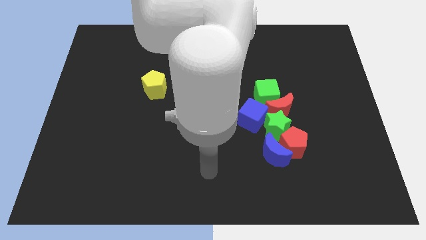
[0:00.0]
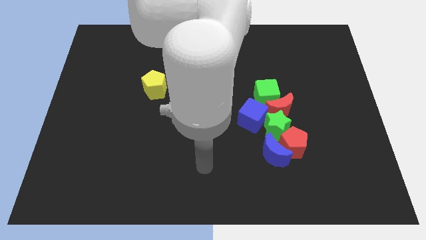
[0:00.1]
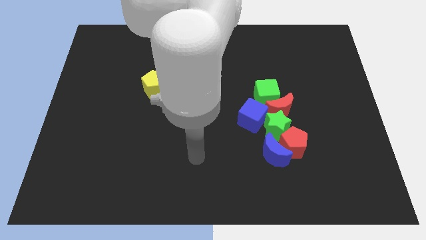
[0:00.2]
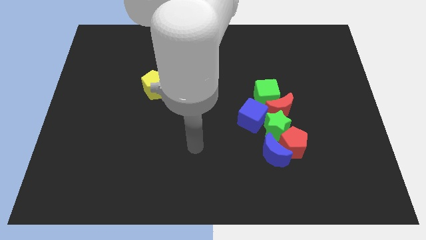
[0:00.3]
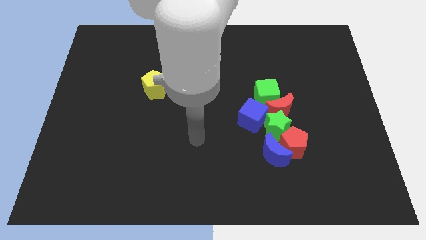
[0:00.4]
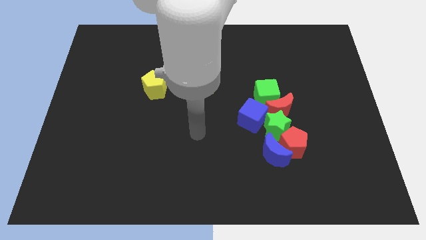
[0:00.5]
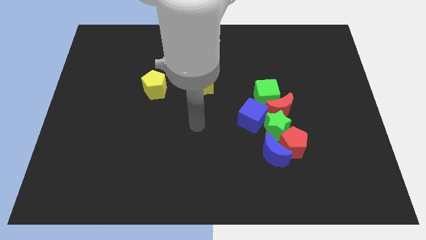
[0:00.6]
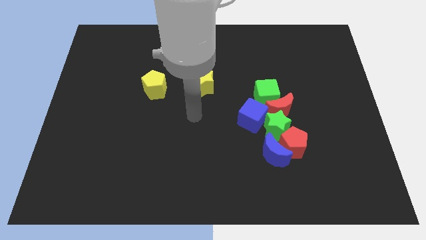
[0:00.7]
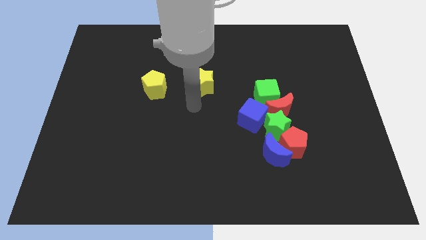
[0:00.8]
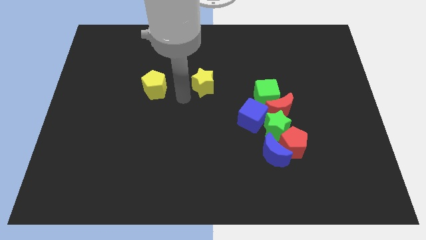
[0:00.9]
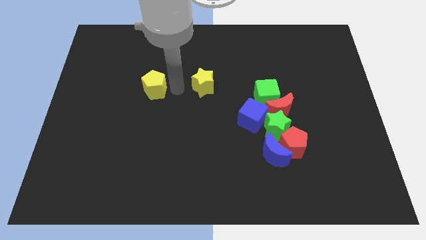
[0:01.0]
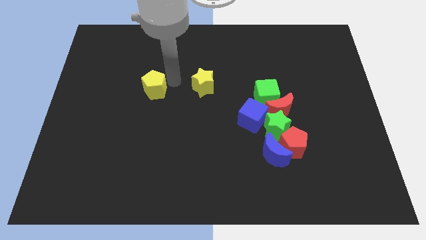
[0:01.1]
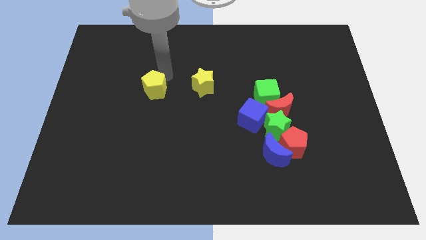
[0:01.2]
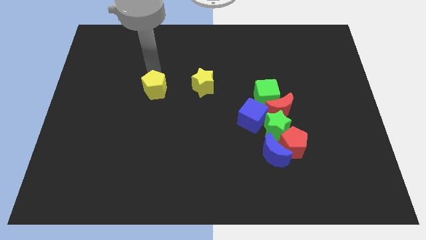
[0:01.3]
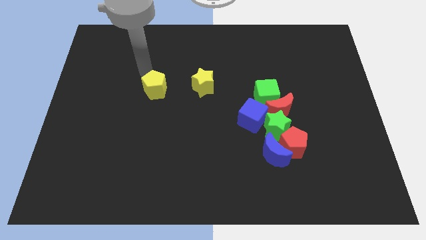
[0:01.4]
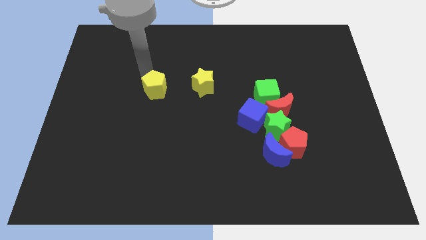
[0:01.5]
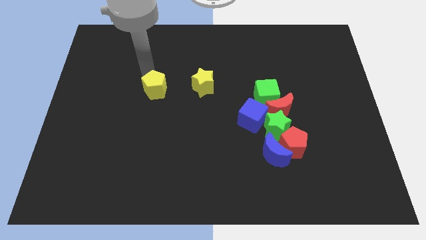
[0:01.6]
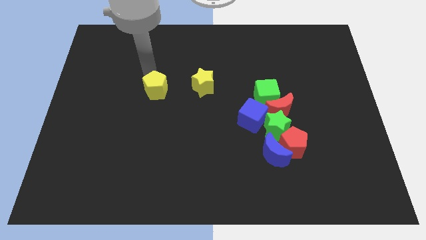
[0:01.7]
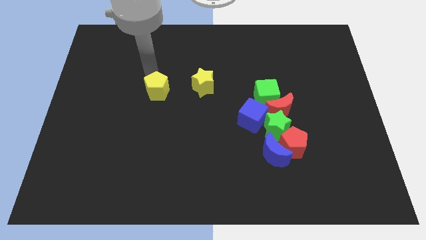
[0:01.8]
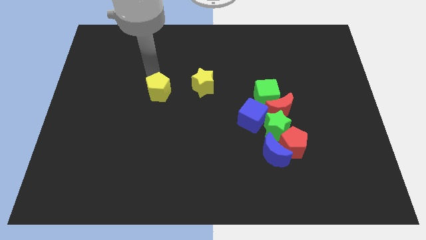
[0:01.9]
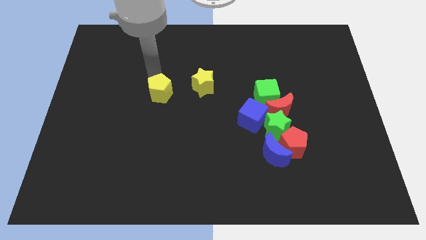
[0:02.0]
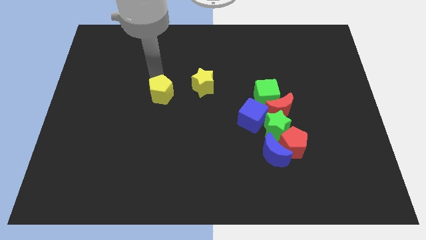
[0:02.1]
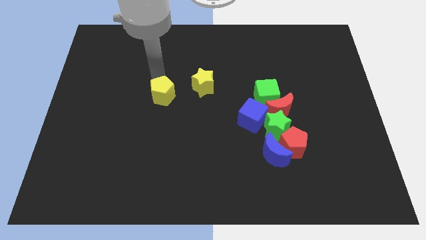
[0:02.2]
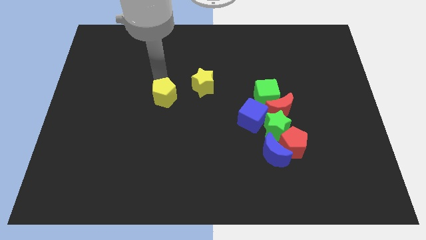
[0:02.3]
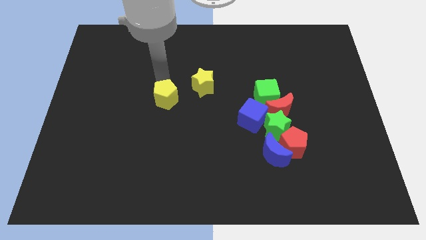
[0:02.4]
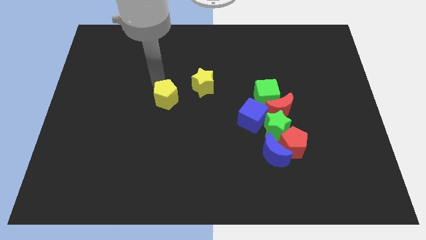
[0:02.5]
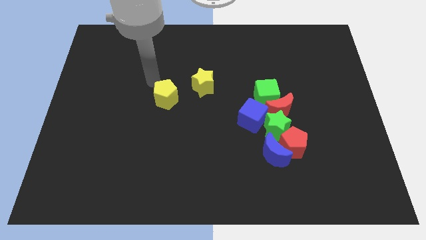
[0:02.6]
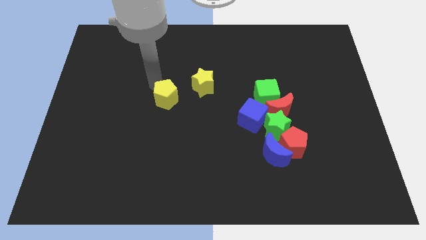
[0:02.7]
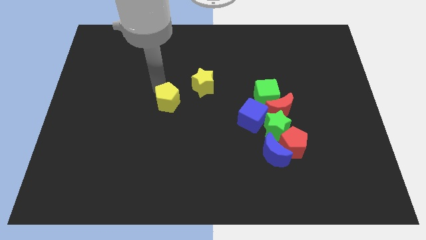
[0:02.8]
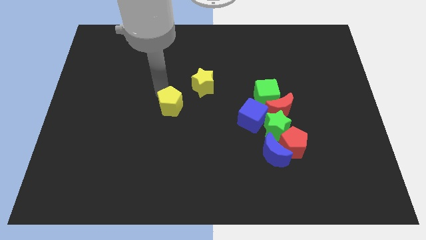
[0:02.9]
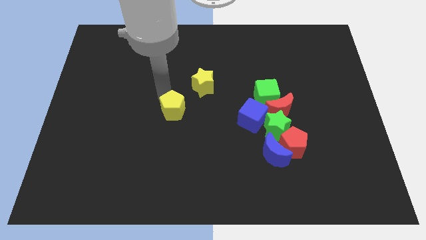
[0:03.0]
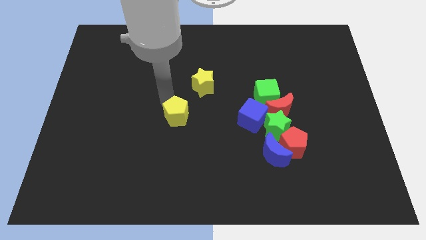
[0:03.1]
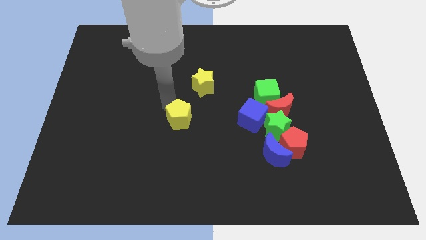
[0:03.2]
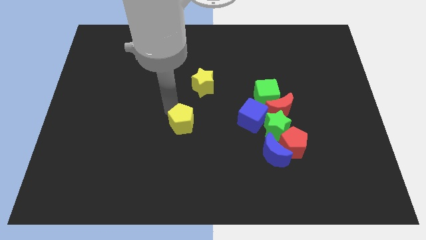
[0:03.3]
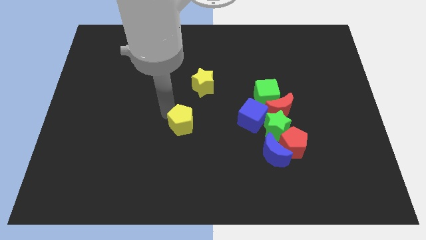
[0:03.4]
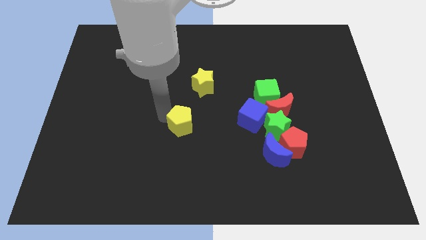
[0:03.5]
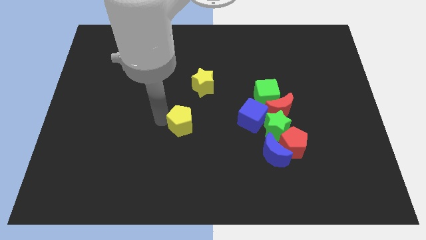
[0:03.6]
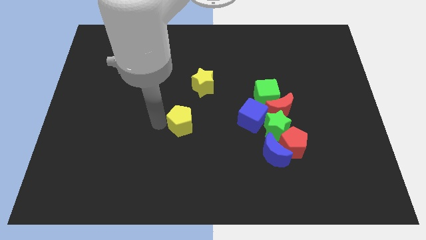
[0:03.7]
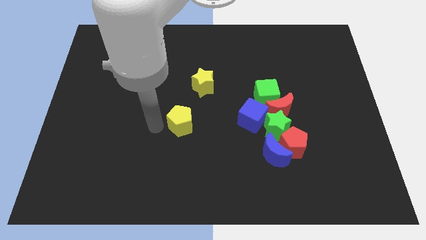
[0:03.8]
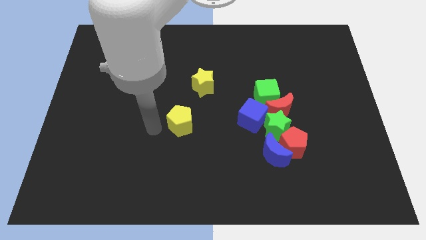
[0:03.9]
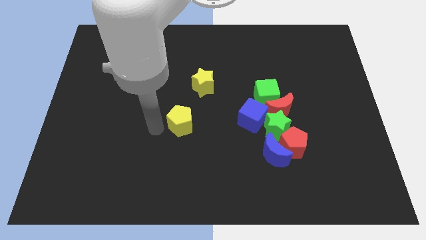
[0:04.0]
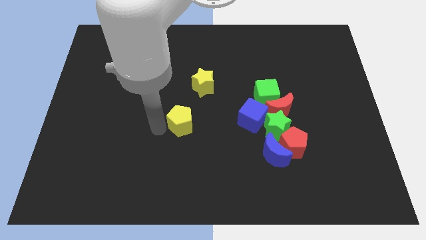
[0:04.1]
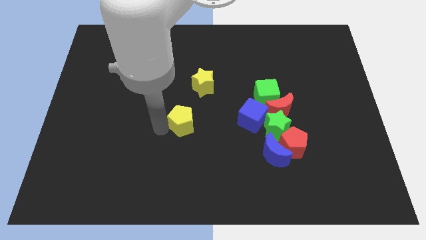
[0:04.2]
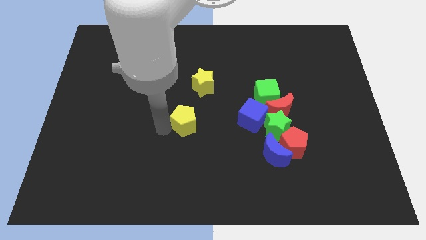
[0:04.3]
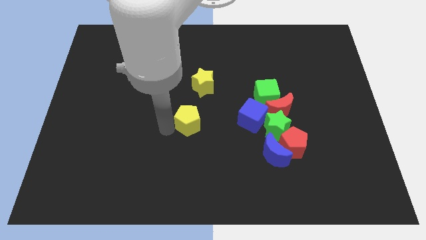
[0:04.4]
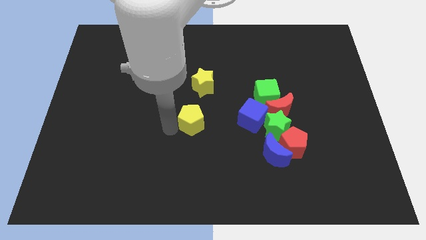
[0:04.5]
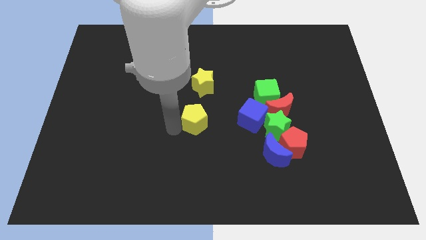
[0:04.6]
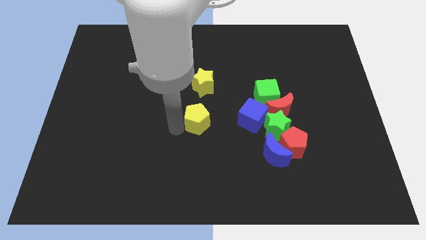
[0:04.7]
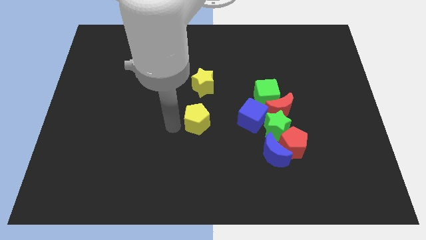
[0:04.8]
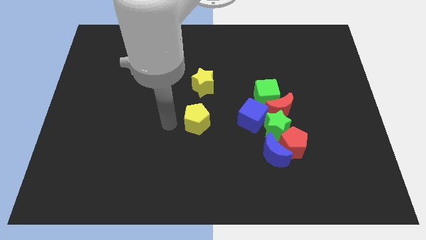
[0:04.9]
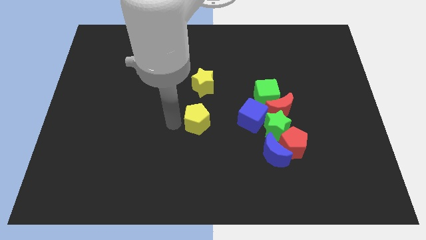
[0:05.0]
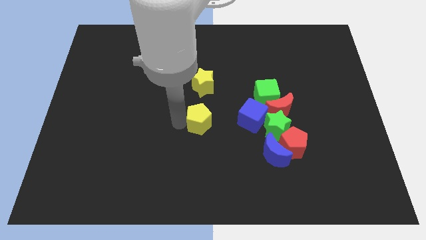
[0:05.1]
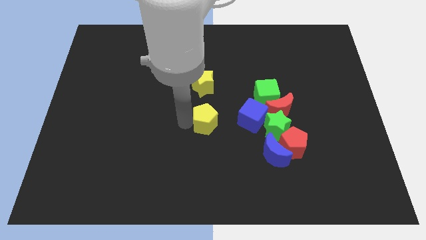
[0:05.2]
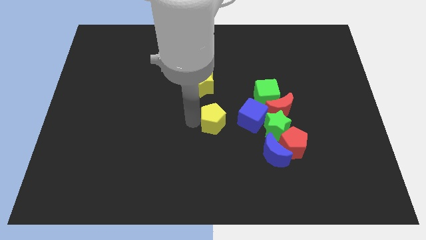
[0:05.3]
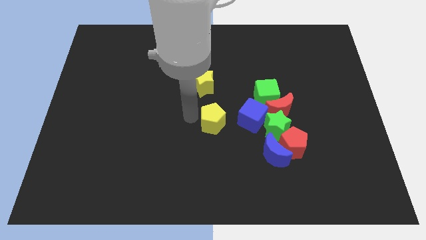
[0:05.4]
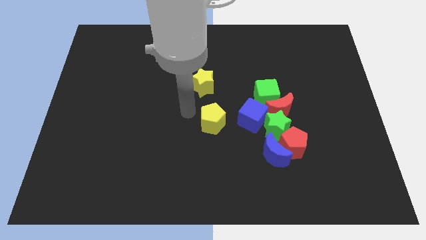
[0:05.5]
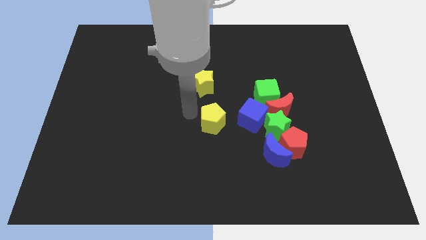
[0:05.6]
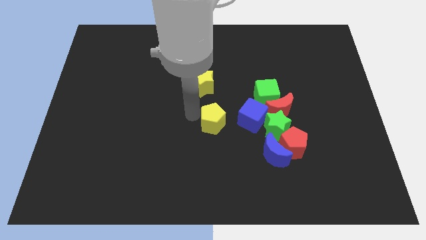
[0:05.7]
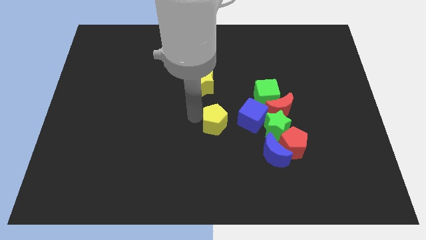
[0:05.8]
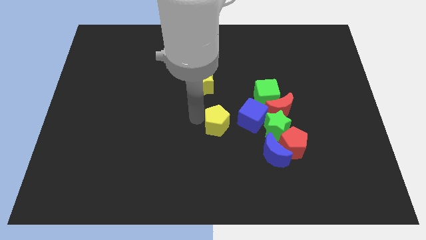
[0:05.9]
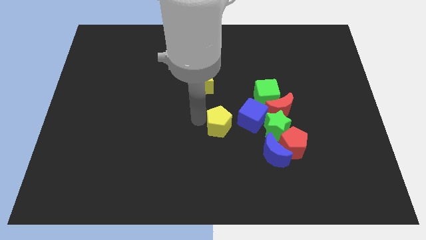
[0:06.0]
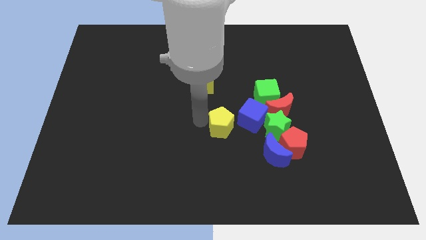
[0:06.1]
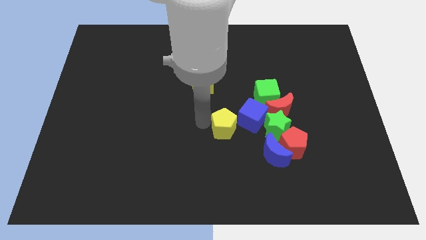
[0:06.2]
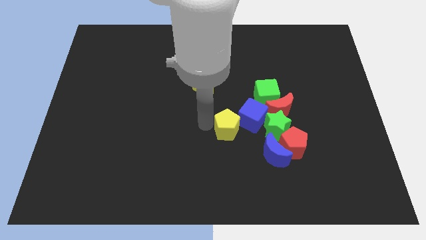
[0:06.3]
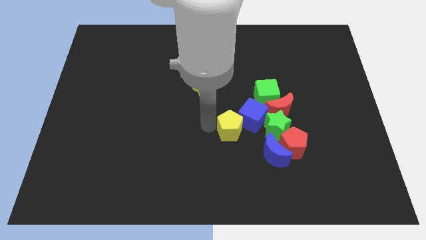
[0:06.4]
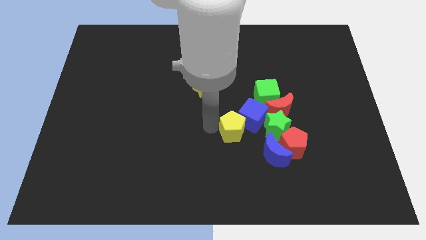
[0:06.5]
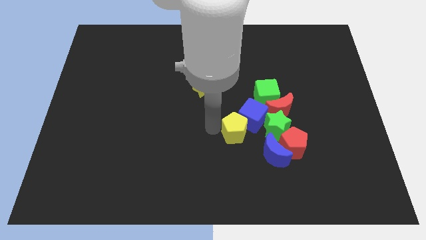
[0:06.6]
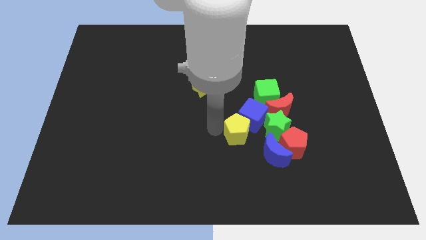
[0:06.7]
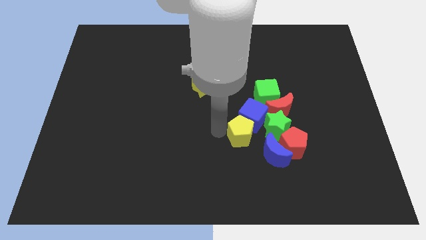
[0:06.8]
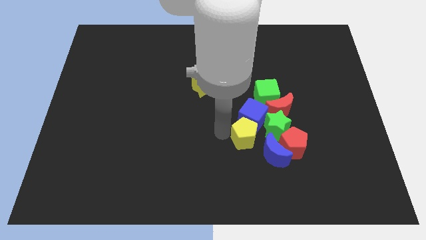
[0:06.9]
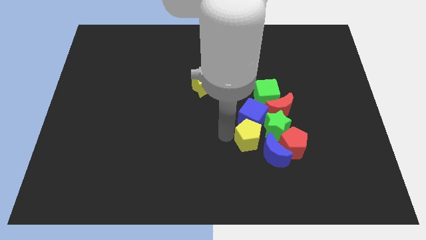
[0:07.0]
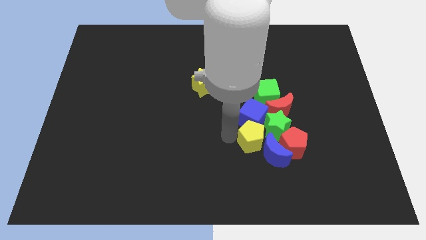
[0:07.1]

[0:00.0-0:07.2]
push the yellow pentagon next to the blue moon
